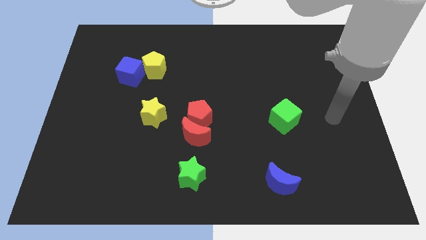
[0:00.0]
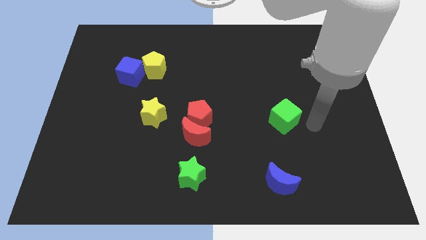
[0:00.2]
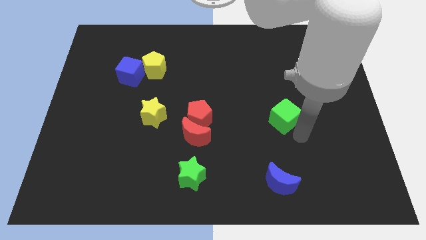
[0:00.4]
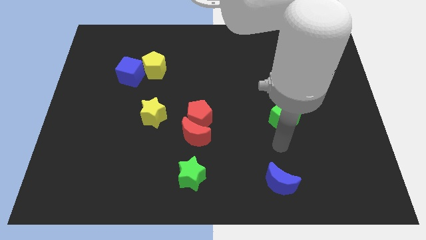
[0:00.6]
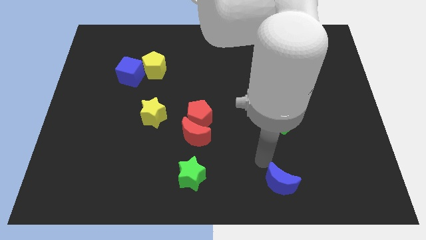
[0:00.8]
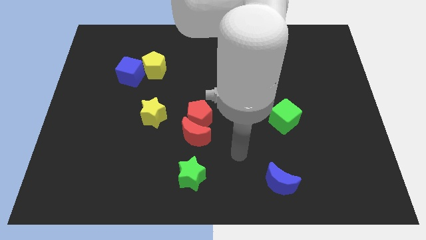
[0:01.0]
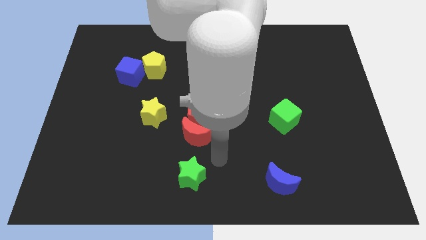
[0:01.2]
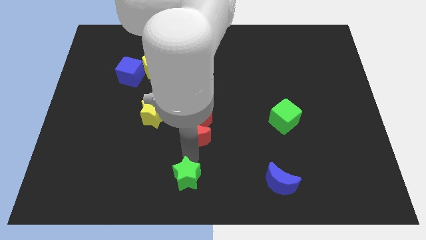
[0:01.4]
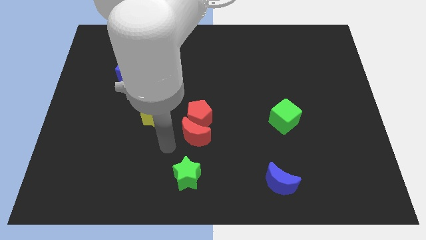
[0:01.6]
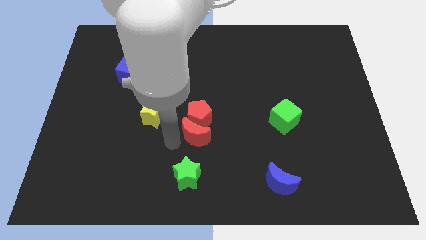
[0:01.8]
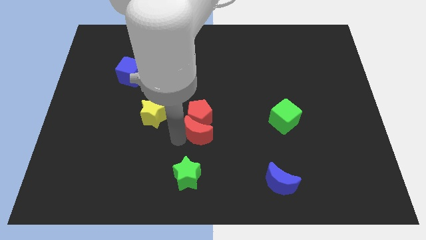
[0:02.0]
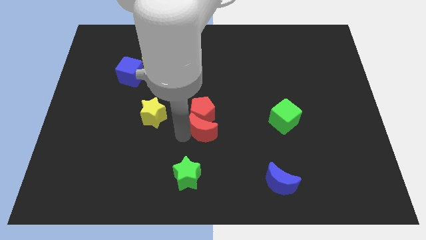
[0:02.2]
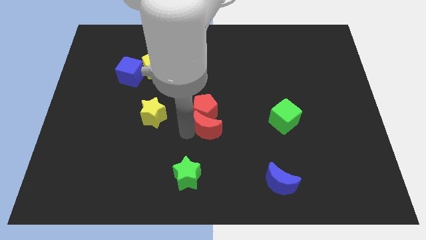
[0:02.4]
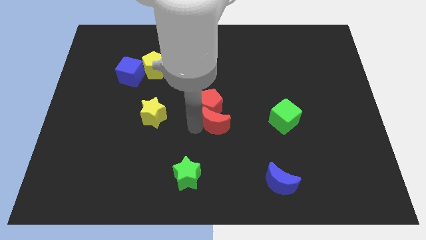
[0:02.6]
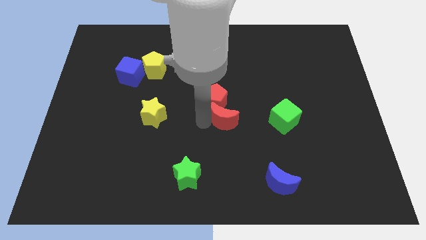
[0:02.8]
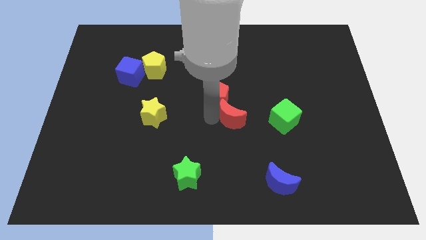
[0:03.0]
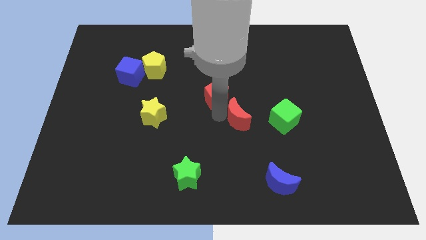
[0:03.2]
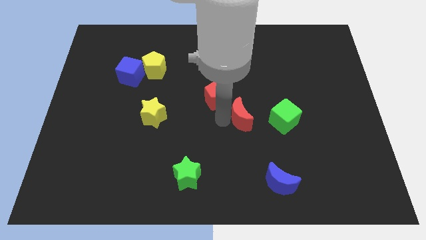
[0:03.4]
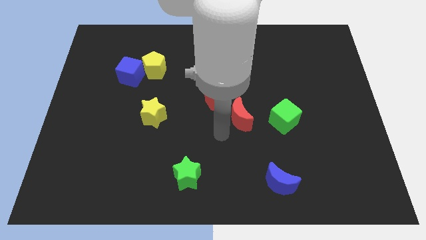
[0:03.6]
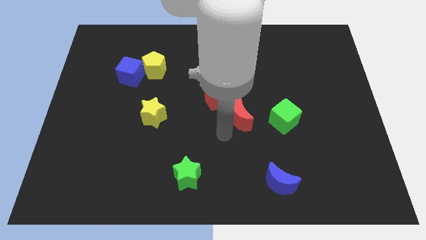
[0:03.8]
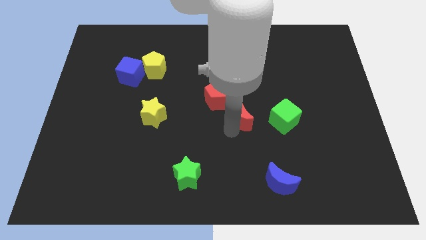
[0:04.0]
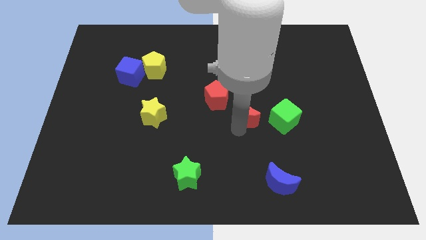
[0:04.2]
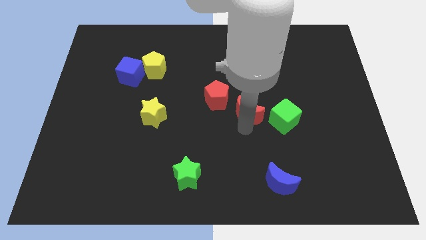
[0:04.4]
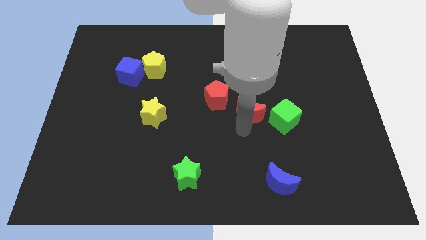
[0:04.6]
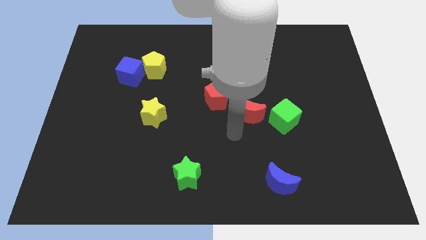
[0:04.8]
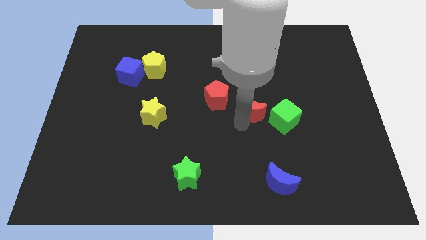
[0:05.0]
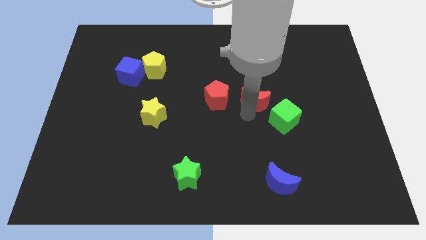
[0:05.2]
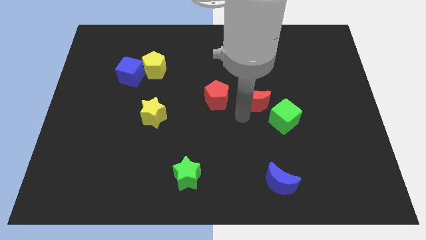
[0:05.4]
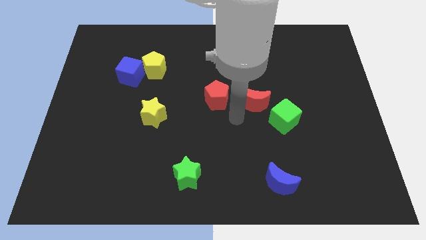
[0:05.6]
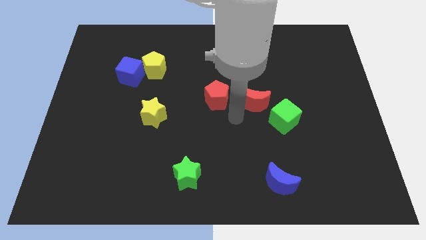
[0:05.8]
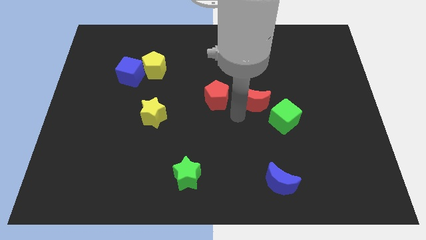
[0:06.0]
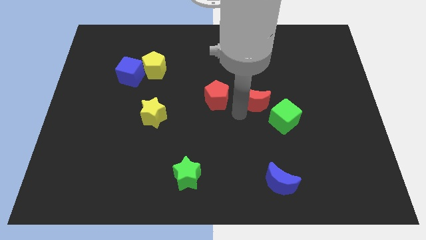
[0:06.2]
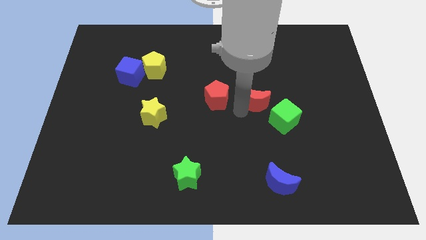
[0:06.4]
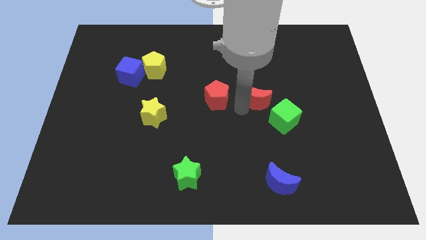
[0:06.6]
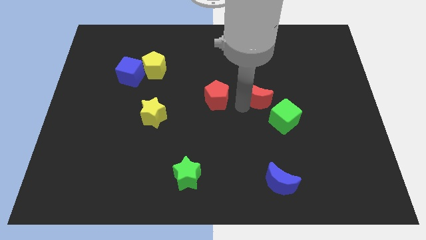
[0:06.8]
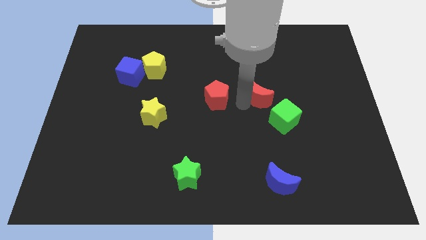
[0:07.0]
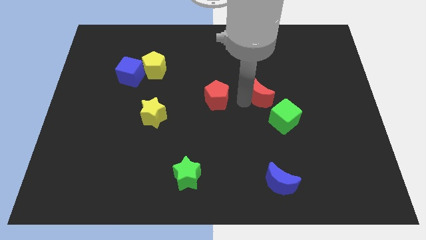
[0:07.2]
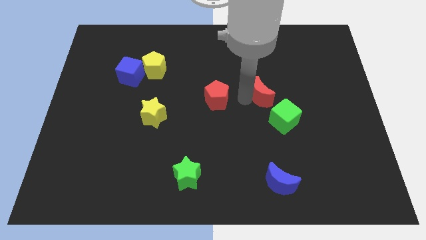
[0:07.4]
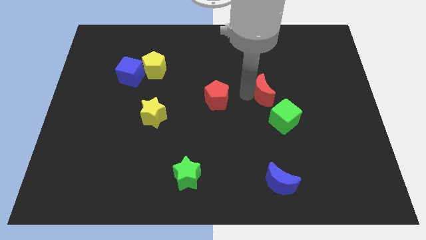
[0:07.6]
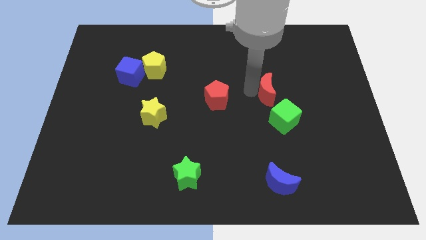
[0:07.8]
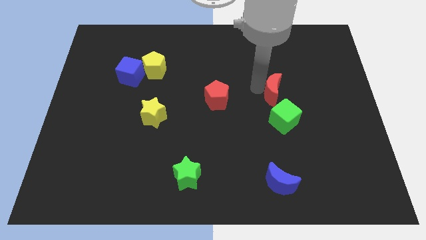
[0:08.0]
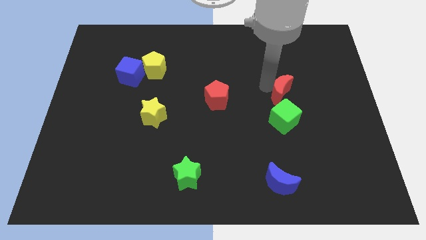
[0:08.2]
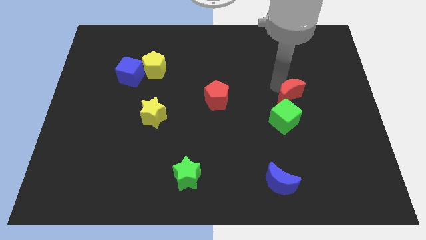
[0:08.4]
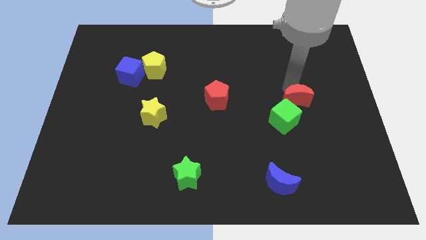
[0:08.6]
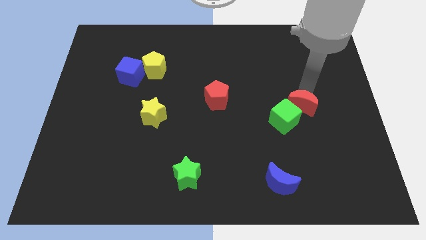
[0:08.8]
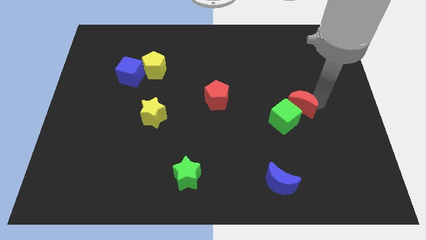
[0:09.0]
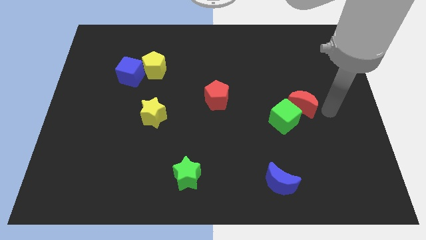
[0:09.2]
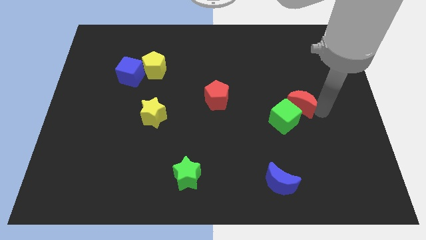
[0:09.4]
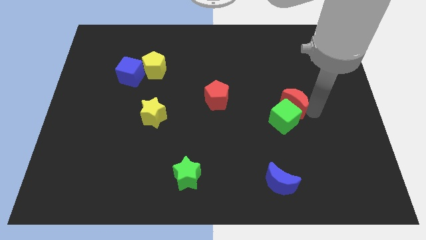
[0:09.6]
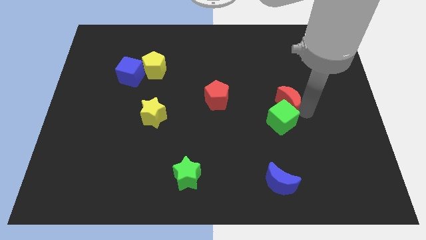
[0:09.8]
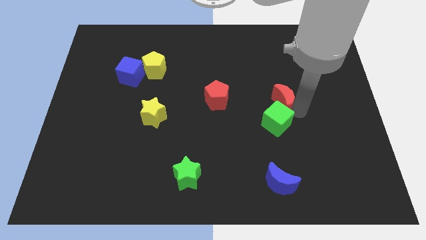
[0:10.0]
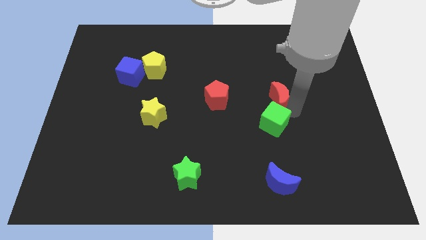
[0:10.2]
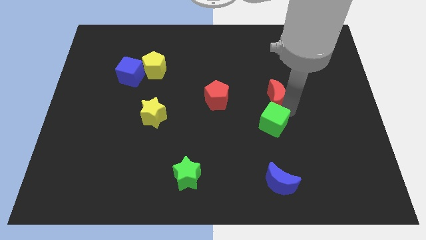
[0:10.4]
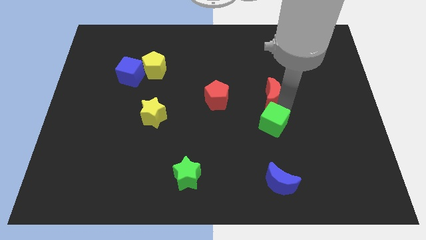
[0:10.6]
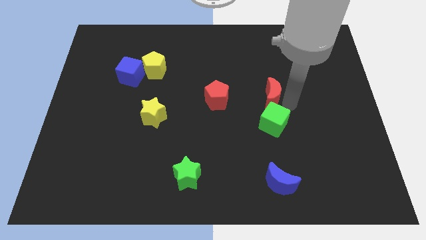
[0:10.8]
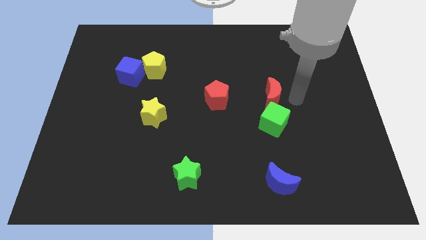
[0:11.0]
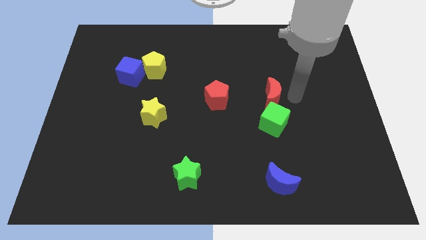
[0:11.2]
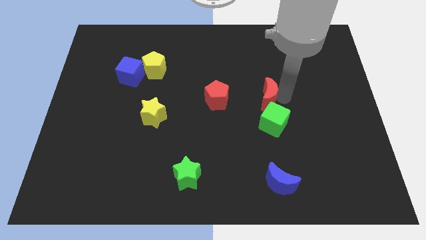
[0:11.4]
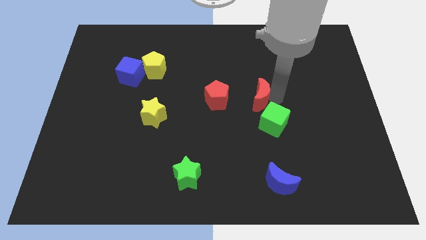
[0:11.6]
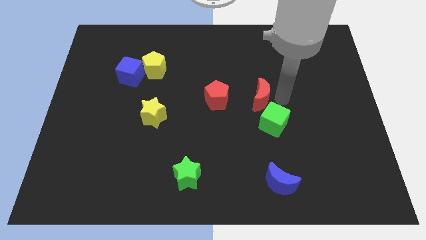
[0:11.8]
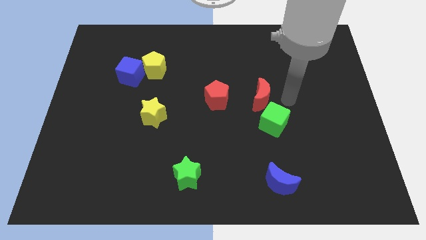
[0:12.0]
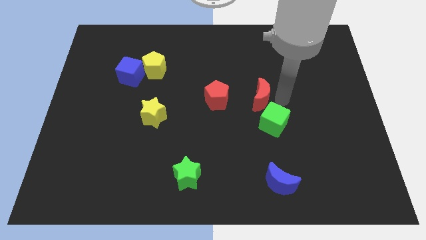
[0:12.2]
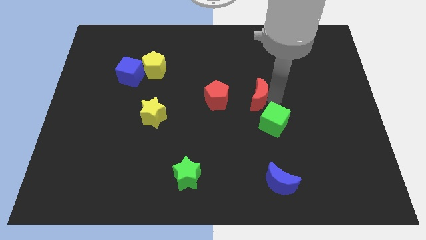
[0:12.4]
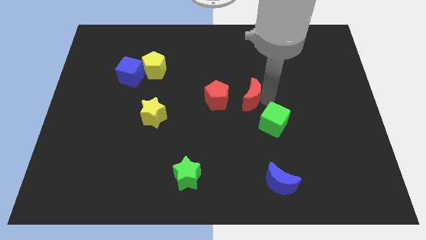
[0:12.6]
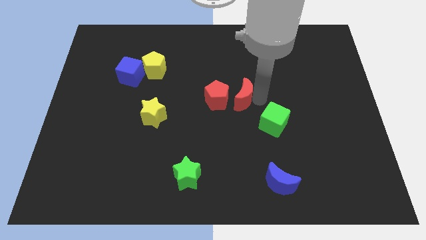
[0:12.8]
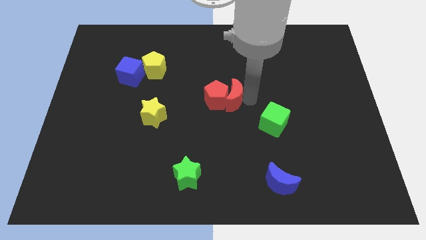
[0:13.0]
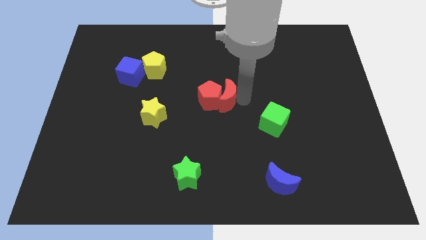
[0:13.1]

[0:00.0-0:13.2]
push the red moon just right of the red pentagon
